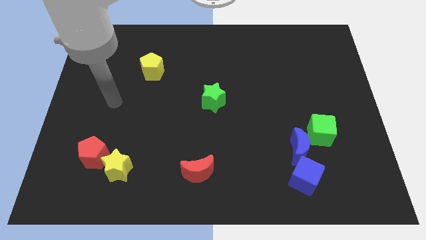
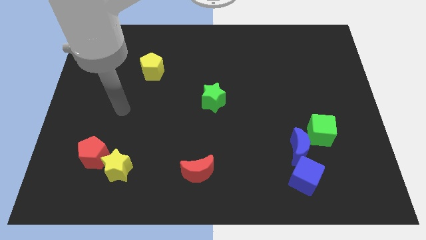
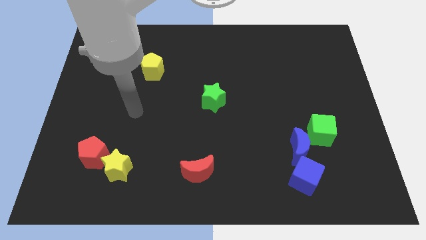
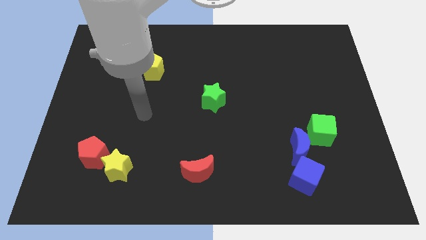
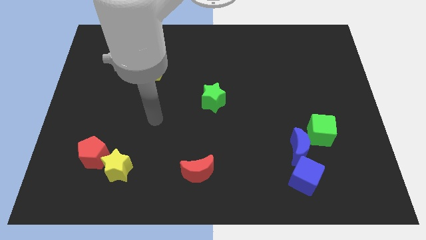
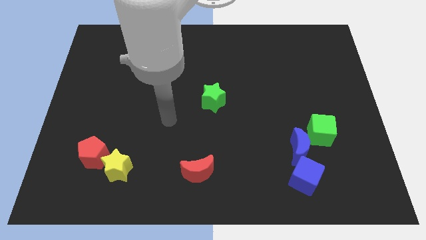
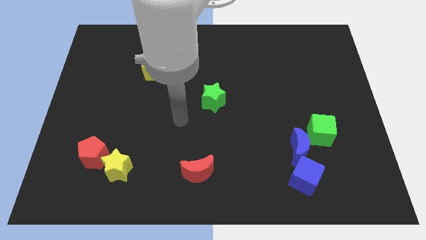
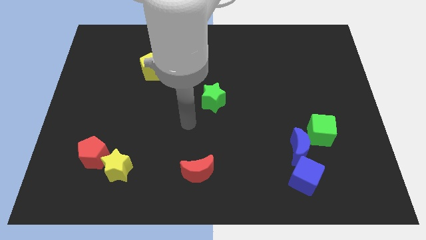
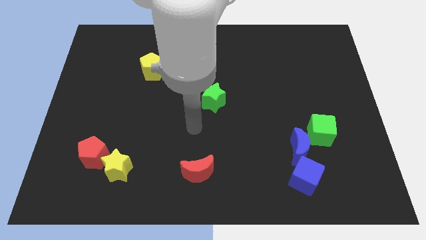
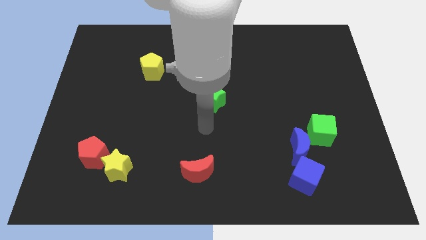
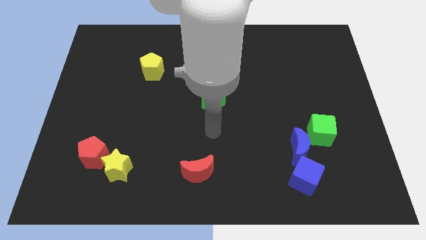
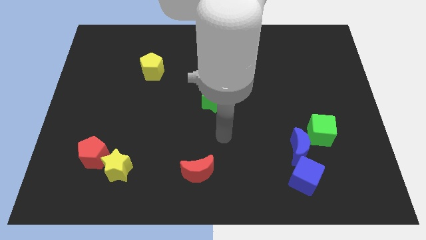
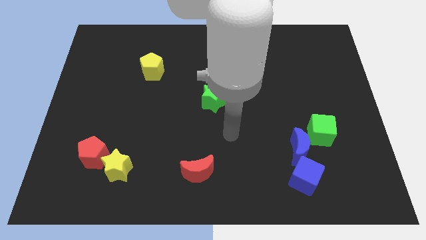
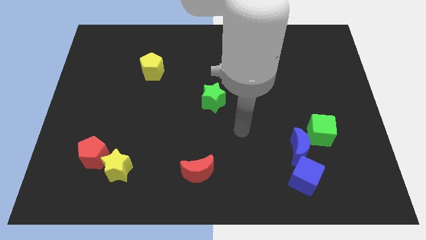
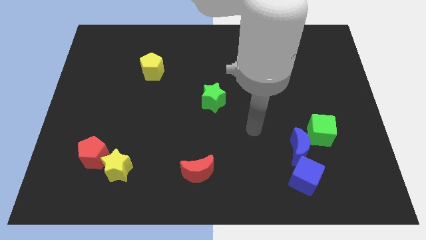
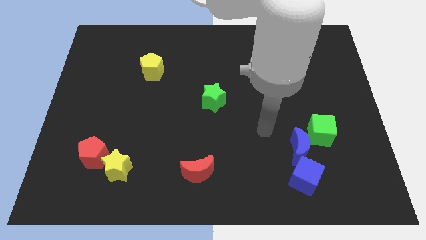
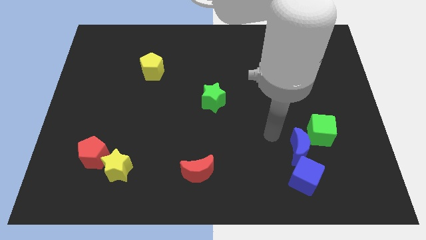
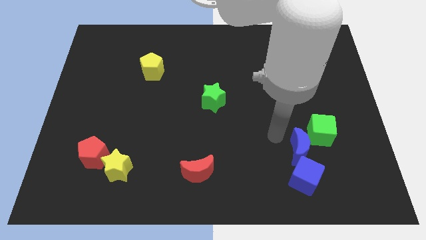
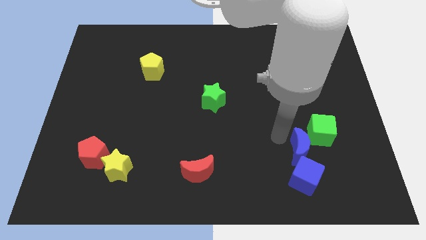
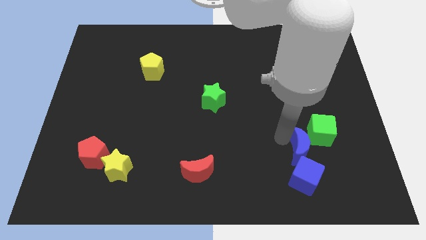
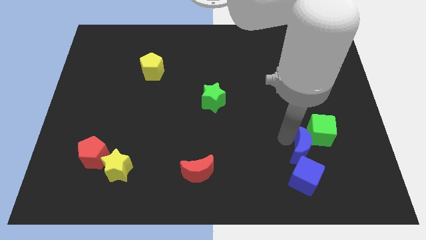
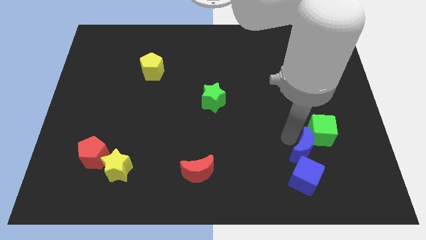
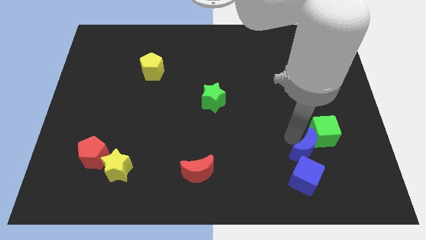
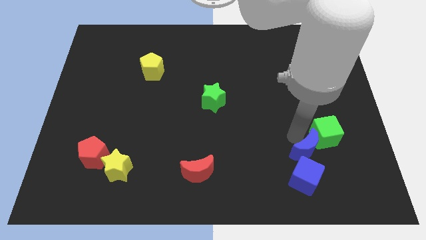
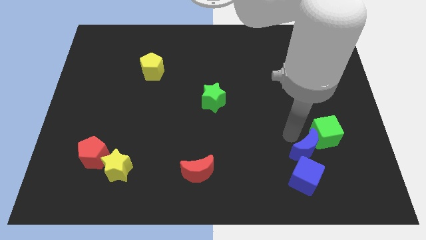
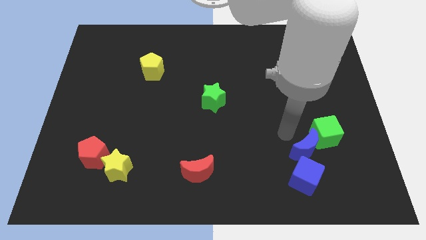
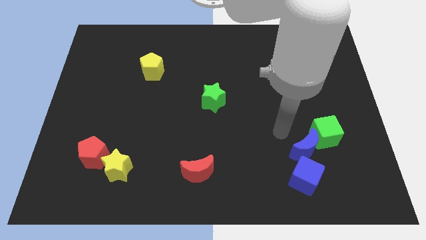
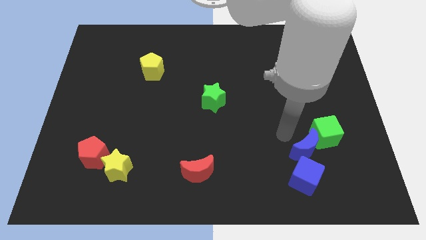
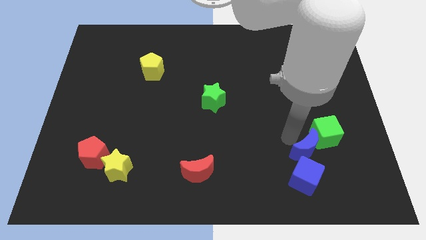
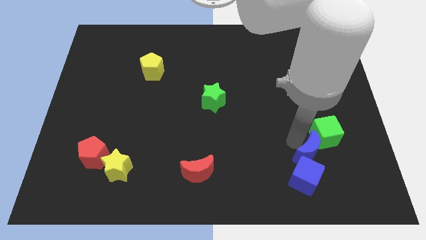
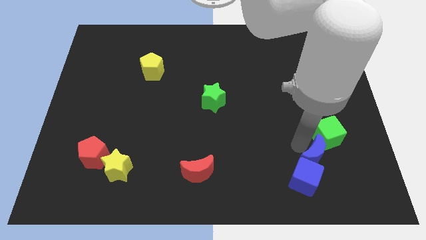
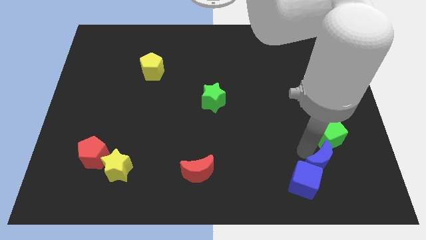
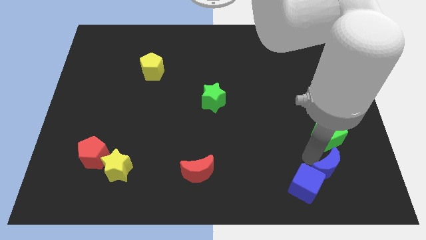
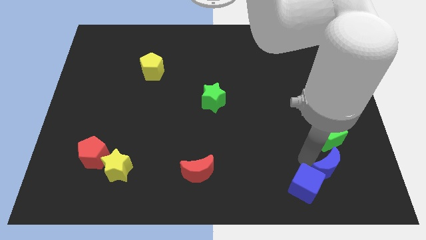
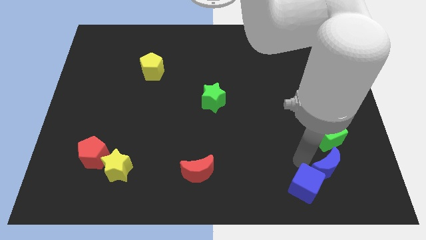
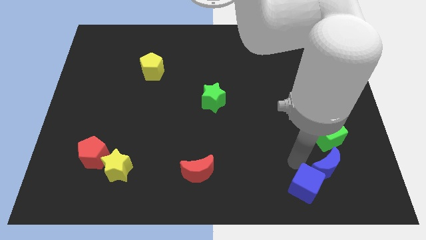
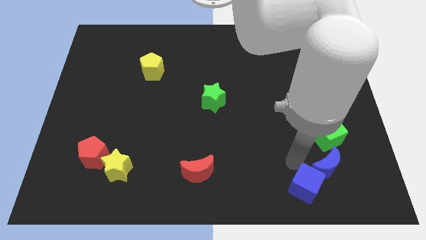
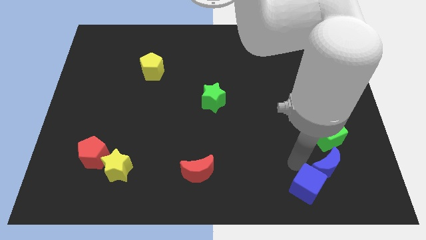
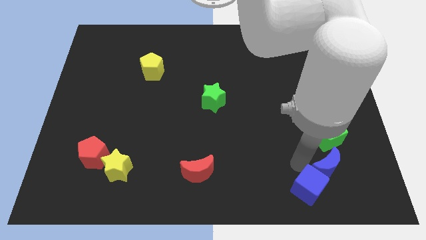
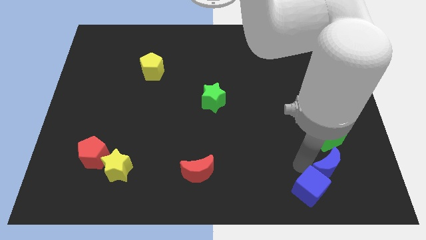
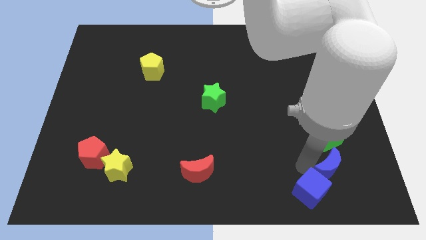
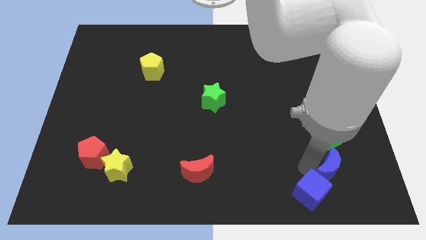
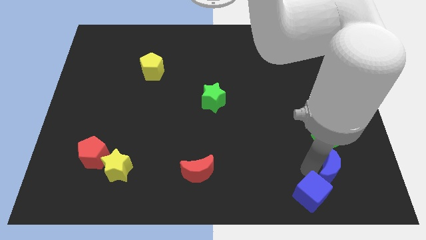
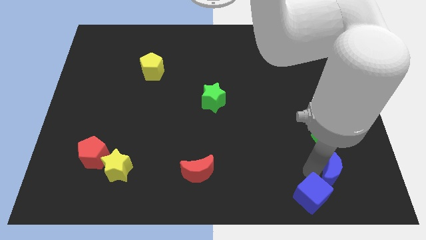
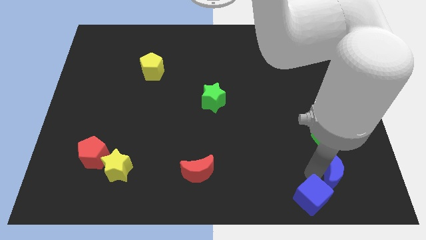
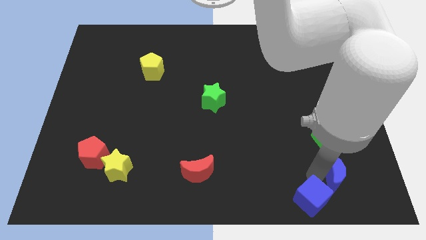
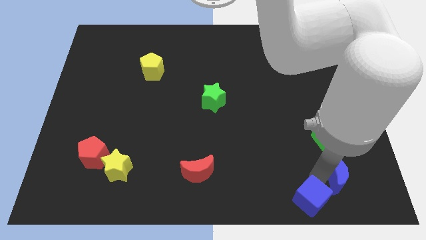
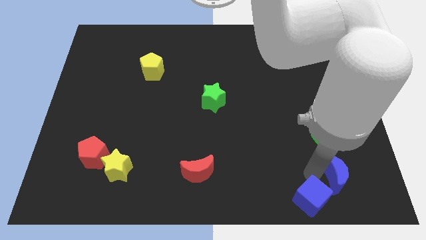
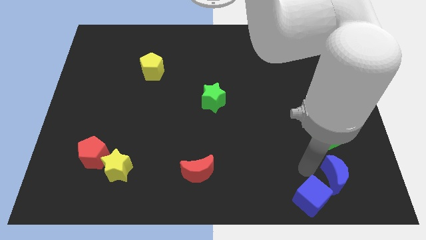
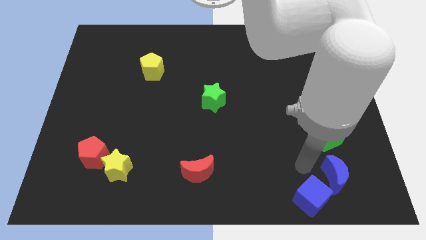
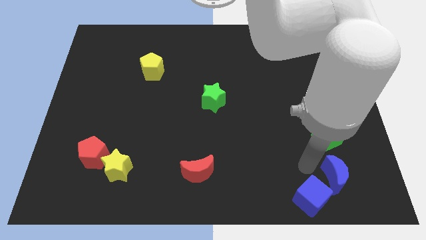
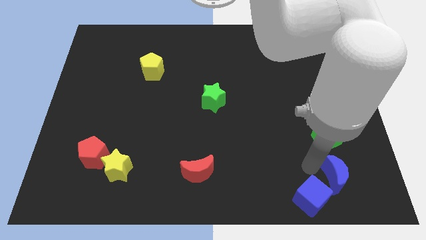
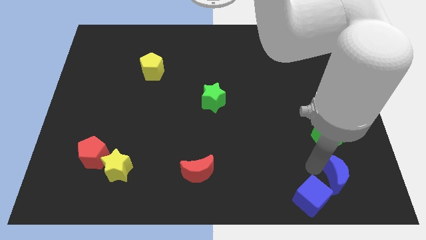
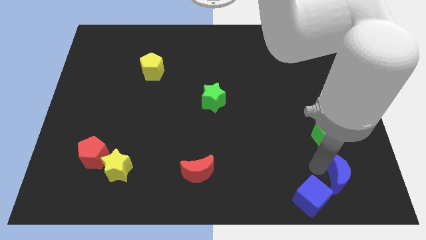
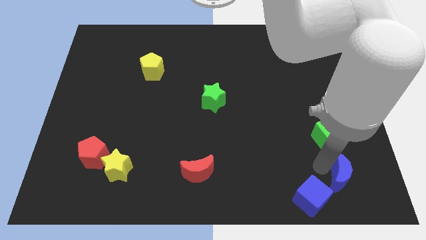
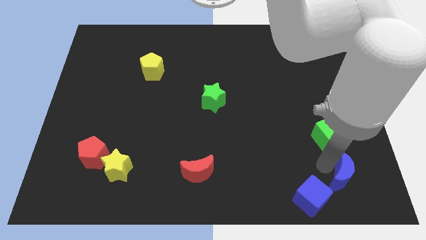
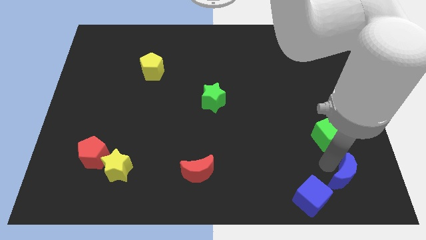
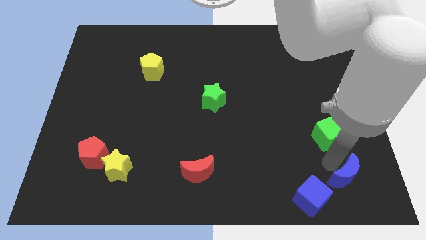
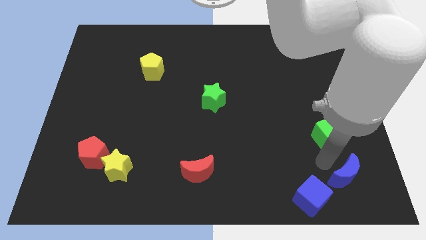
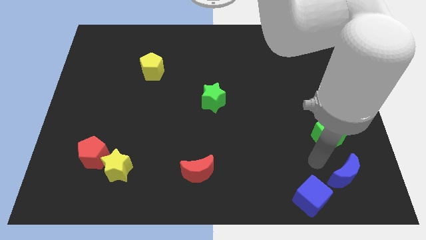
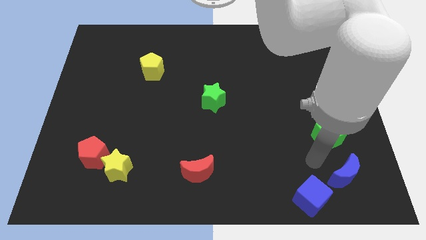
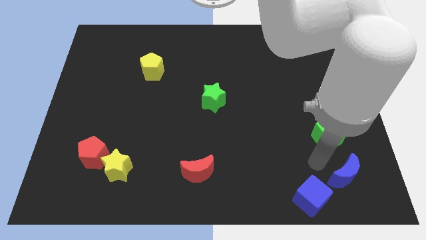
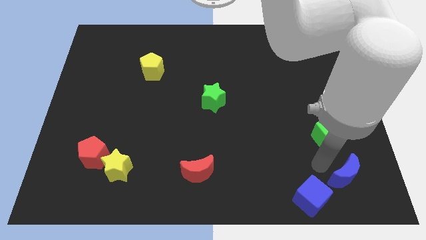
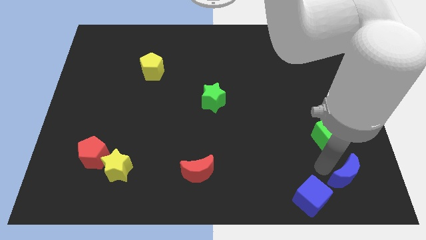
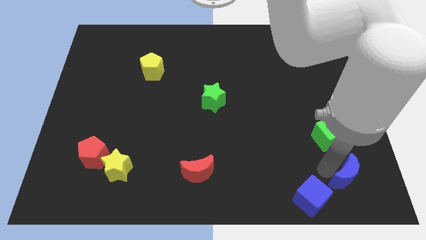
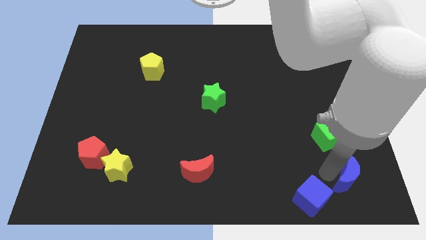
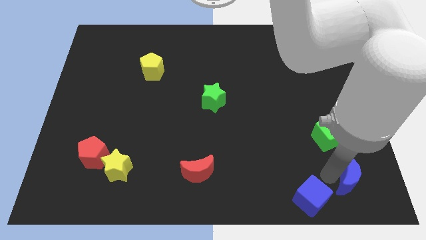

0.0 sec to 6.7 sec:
push the blue moon to the lower right corner
